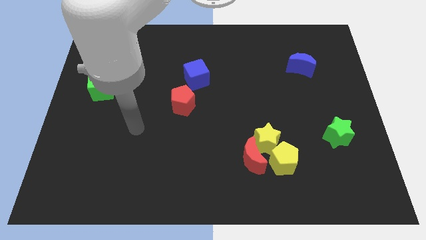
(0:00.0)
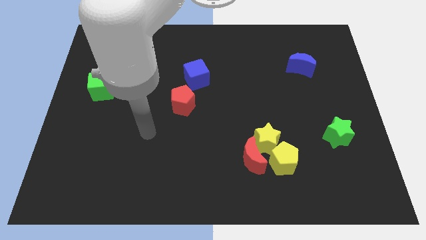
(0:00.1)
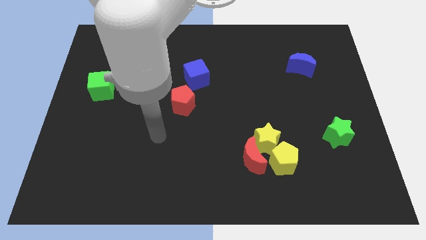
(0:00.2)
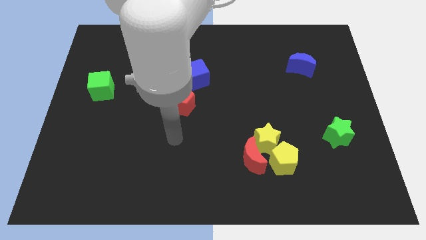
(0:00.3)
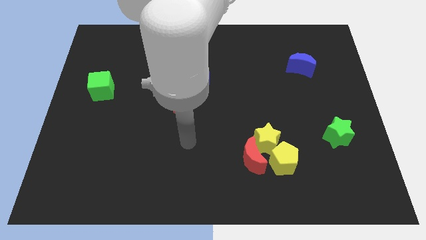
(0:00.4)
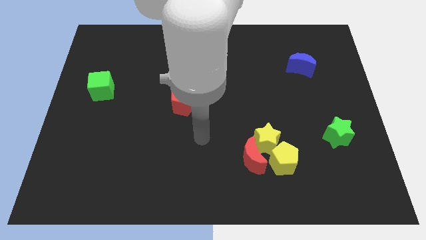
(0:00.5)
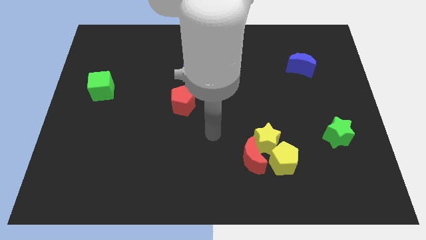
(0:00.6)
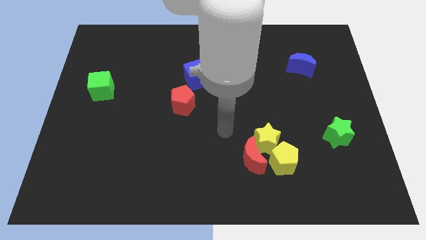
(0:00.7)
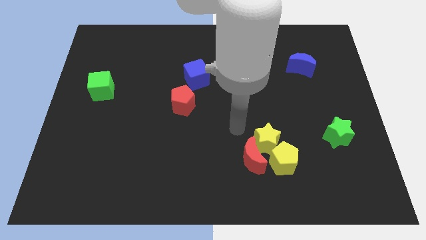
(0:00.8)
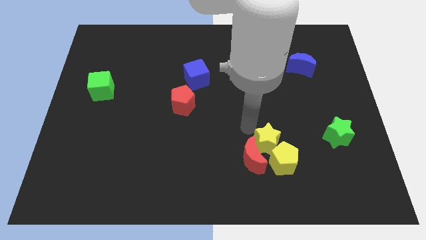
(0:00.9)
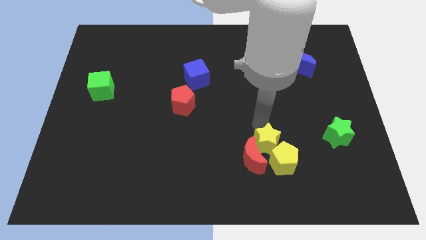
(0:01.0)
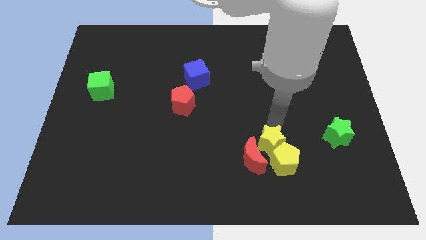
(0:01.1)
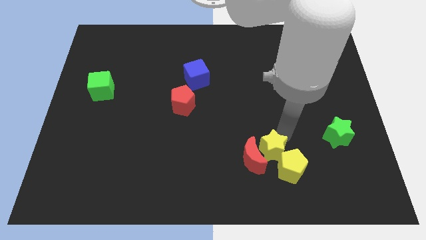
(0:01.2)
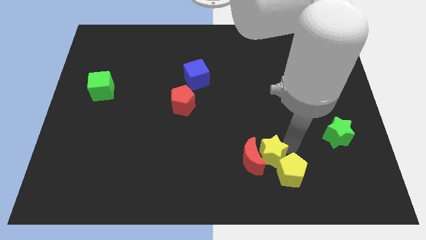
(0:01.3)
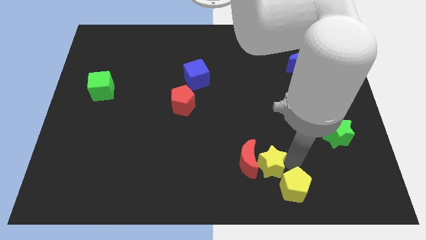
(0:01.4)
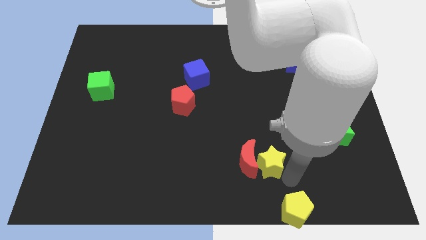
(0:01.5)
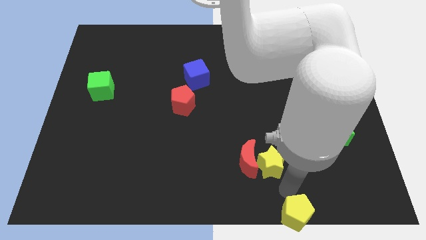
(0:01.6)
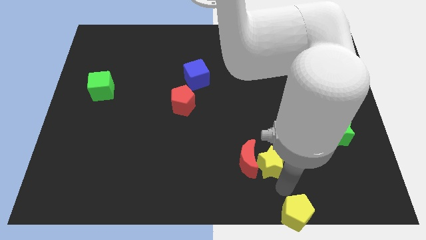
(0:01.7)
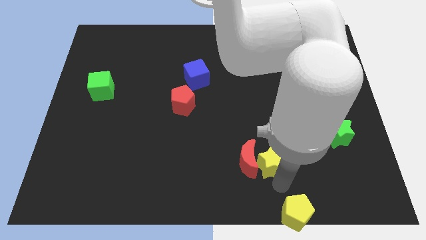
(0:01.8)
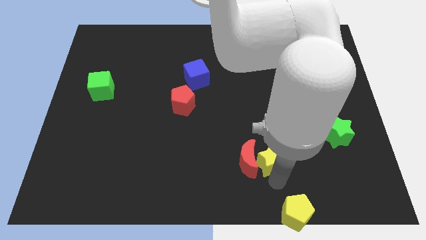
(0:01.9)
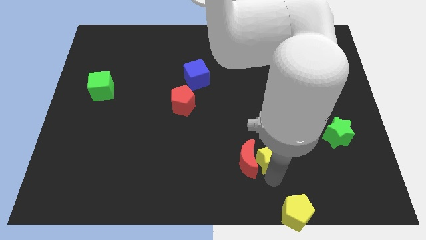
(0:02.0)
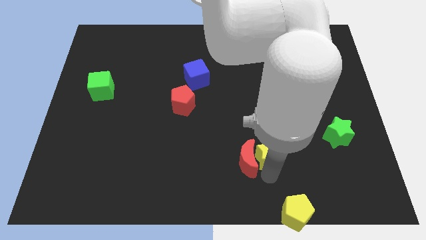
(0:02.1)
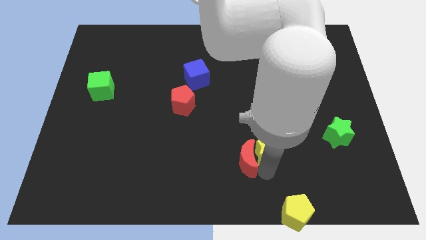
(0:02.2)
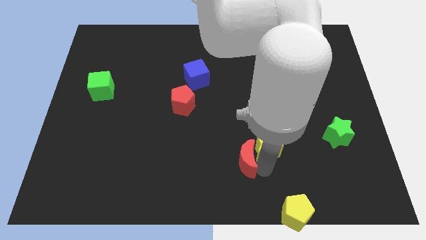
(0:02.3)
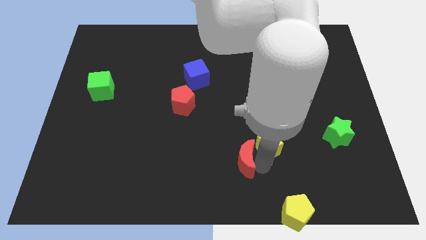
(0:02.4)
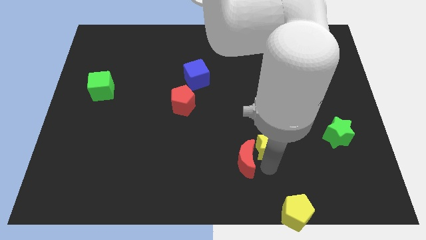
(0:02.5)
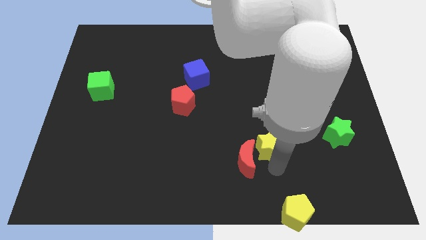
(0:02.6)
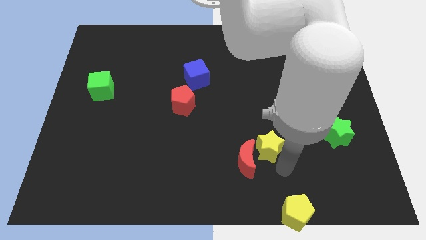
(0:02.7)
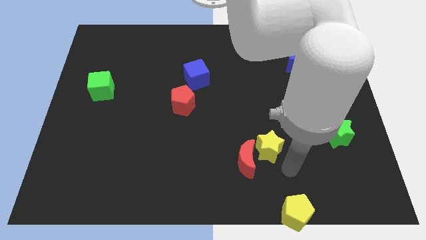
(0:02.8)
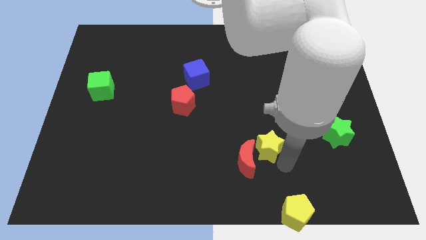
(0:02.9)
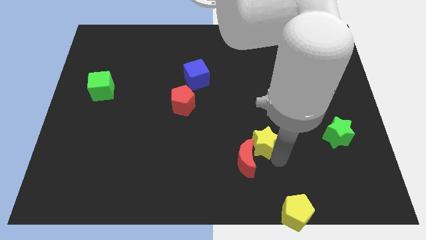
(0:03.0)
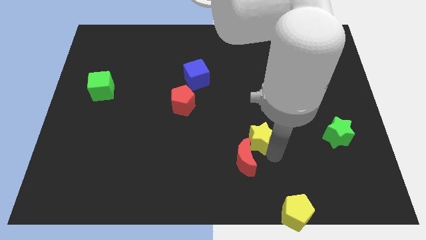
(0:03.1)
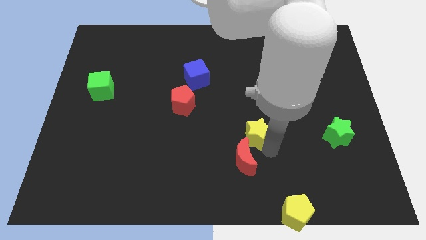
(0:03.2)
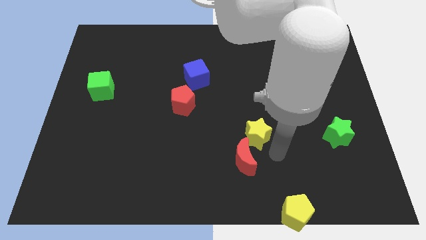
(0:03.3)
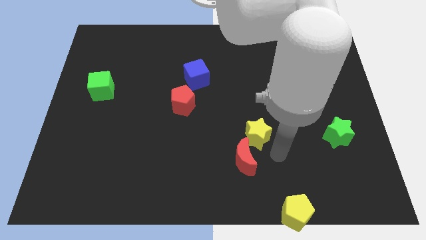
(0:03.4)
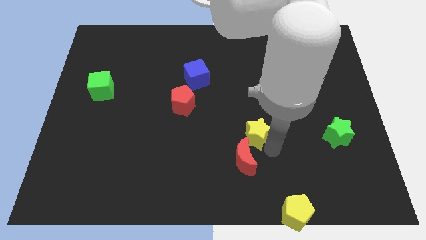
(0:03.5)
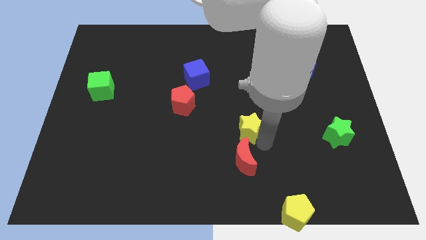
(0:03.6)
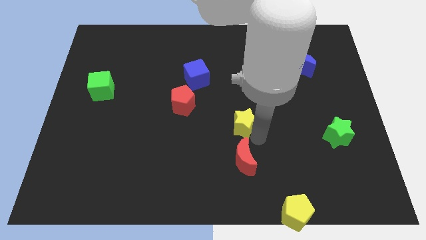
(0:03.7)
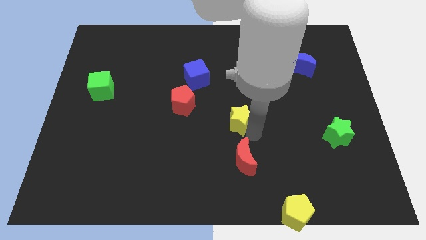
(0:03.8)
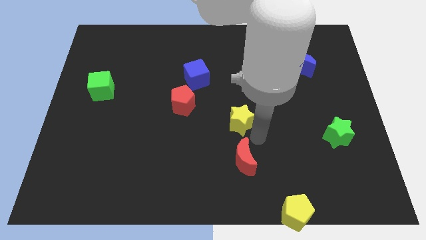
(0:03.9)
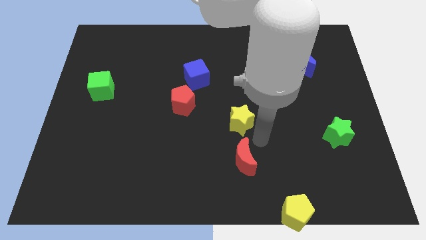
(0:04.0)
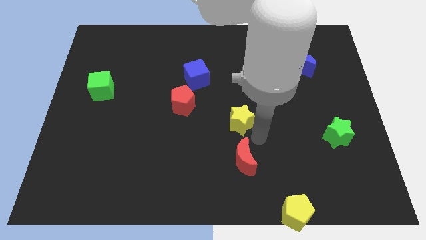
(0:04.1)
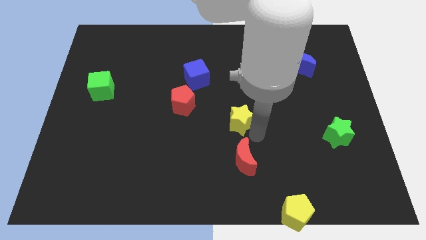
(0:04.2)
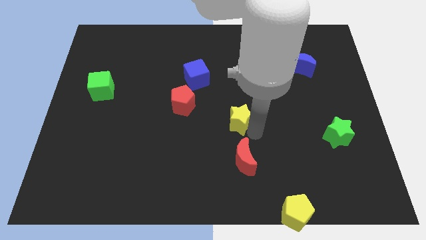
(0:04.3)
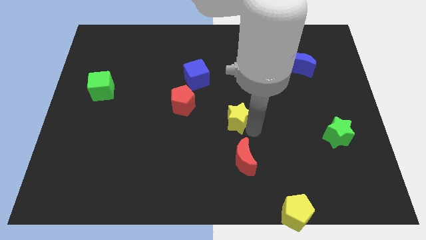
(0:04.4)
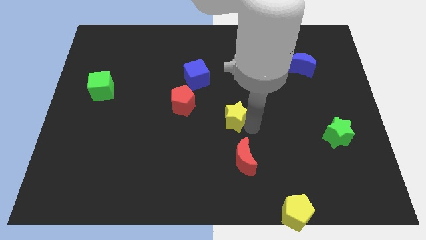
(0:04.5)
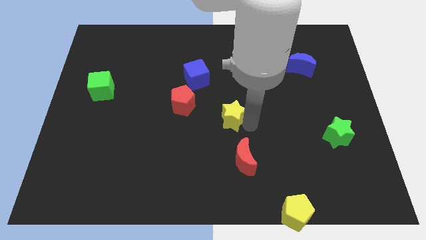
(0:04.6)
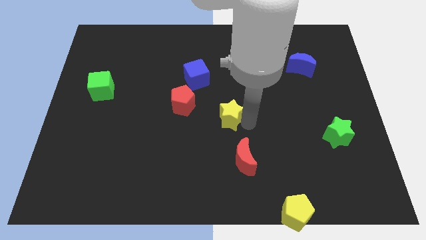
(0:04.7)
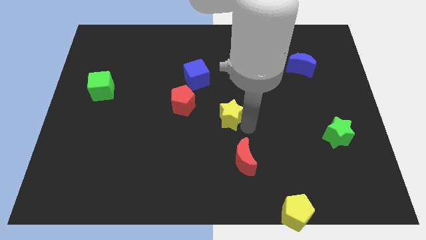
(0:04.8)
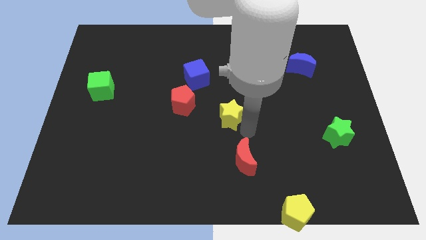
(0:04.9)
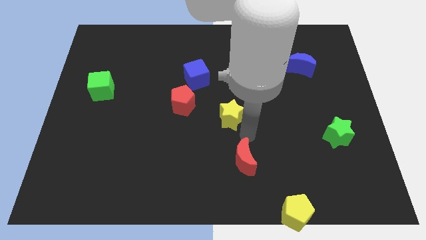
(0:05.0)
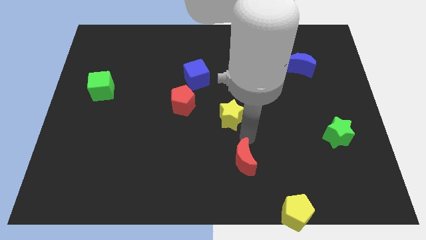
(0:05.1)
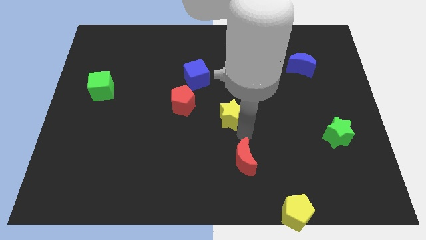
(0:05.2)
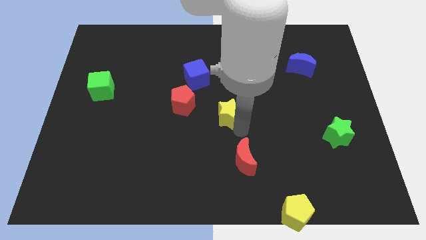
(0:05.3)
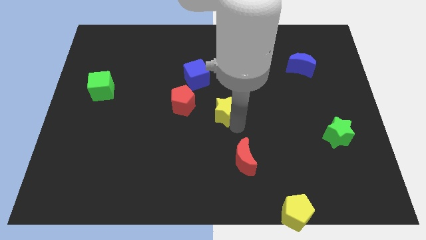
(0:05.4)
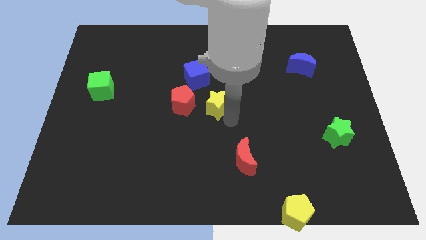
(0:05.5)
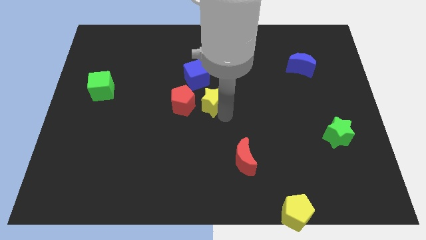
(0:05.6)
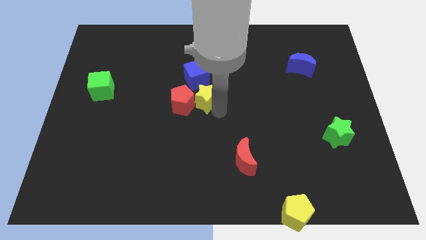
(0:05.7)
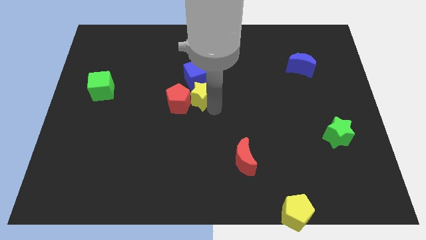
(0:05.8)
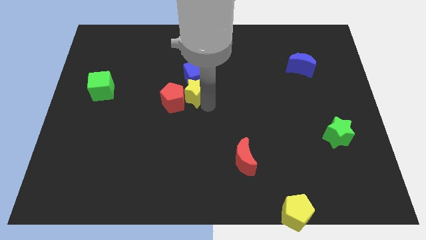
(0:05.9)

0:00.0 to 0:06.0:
put the yellow star next to the blue cube

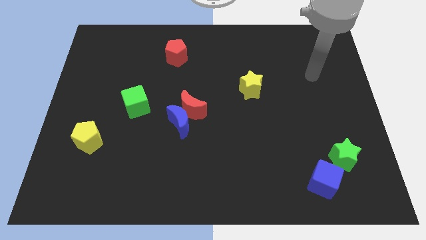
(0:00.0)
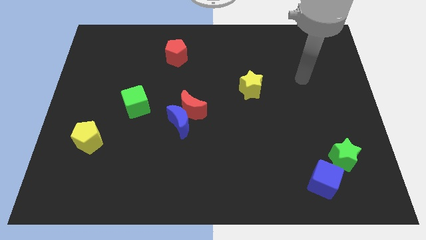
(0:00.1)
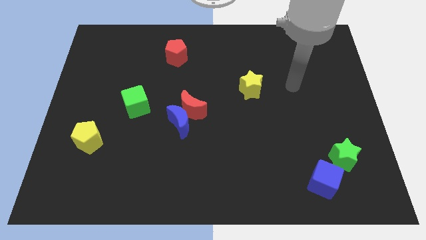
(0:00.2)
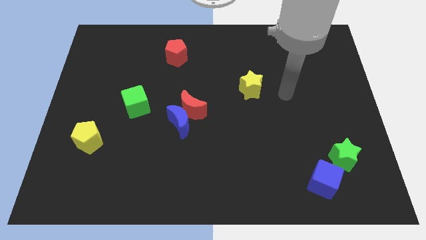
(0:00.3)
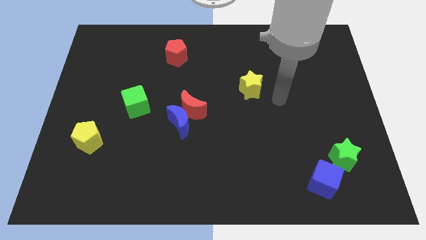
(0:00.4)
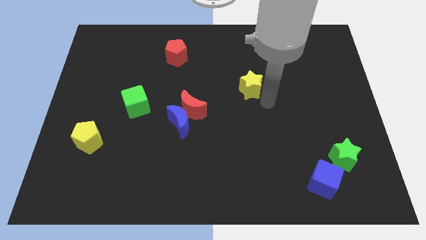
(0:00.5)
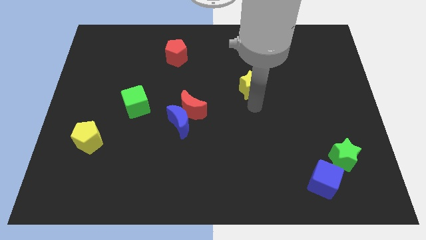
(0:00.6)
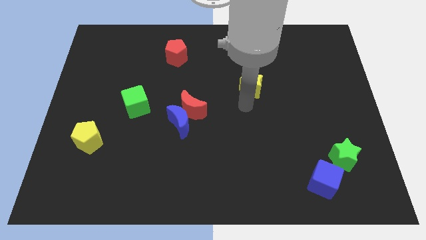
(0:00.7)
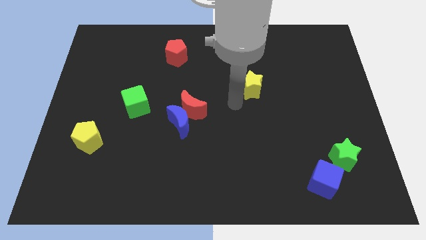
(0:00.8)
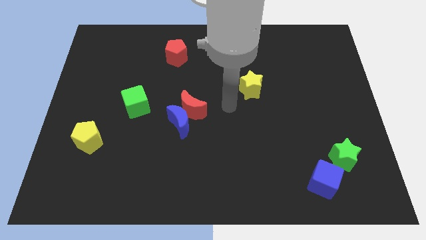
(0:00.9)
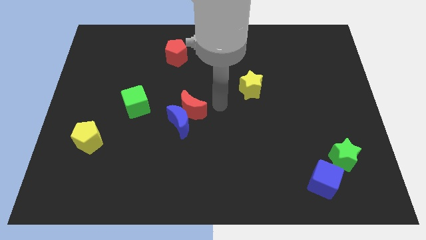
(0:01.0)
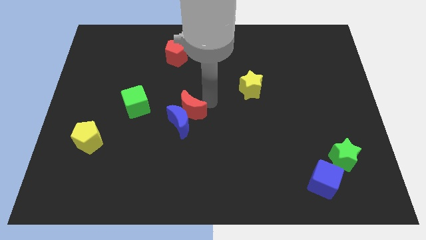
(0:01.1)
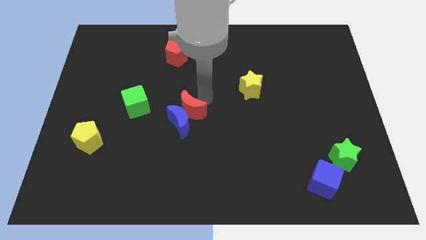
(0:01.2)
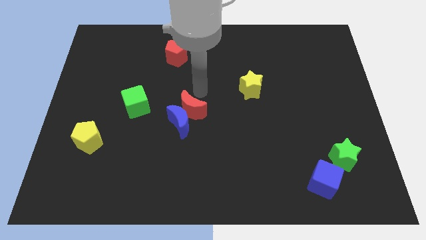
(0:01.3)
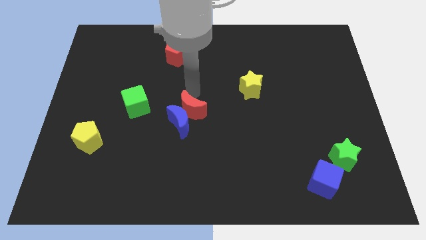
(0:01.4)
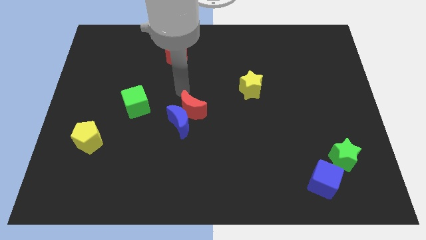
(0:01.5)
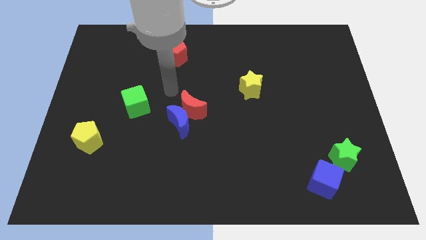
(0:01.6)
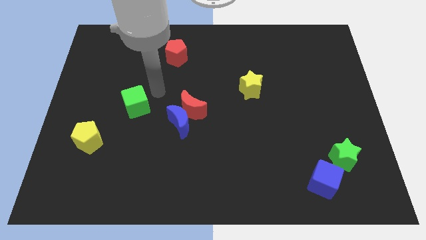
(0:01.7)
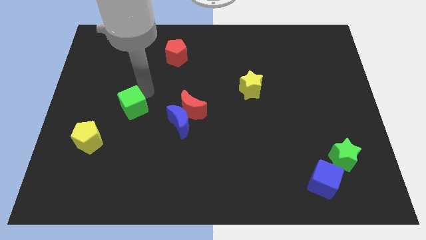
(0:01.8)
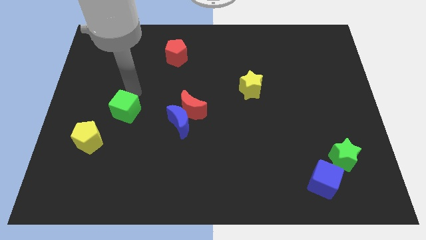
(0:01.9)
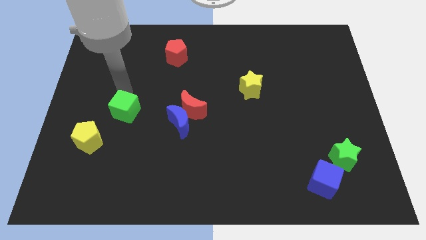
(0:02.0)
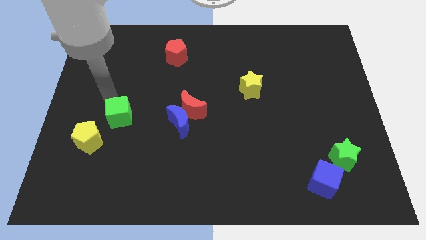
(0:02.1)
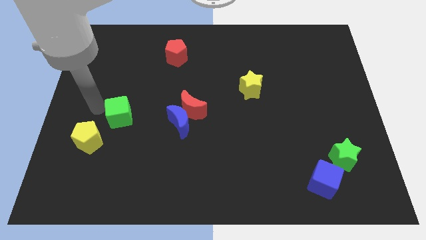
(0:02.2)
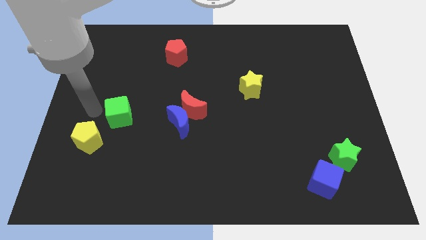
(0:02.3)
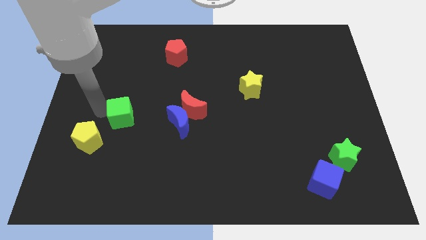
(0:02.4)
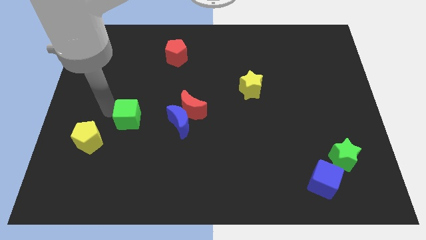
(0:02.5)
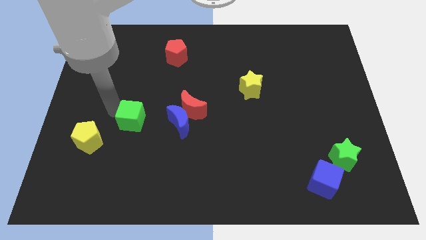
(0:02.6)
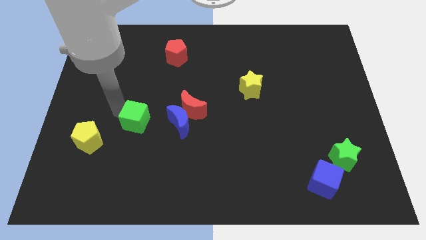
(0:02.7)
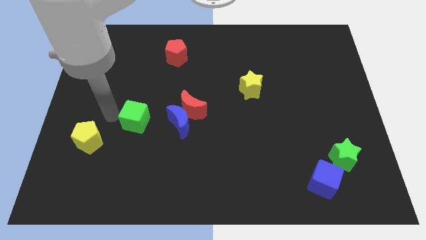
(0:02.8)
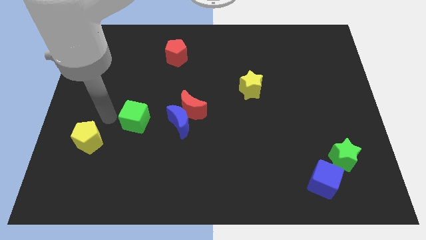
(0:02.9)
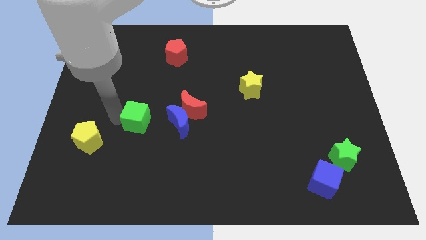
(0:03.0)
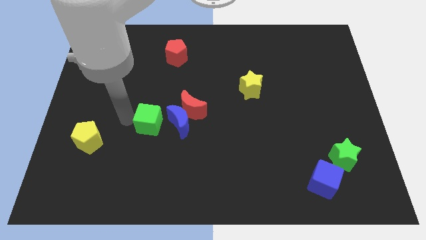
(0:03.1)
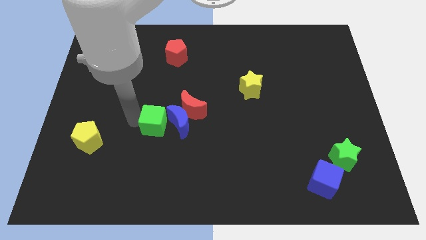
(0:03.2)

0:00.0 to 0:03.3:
put the green cube towards the blue moon
